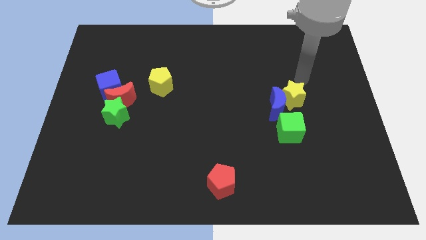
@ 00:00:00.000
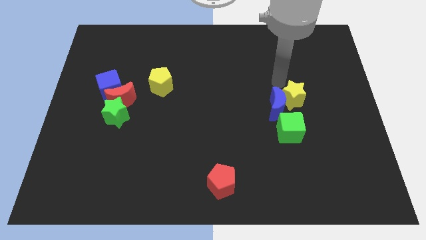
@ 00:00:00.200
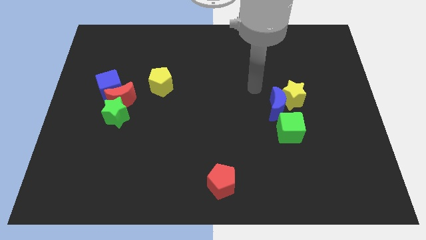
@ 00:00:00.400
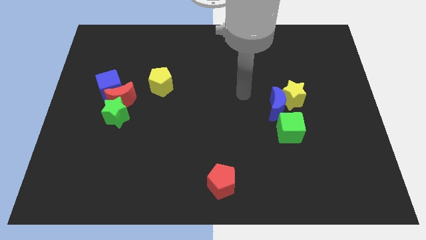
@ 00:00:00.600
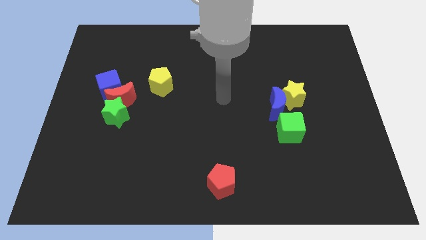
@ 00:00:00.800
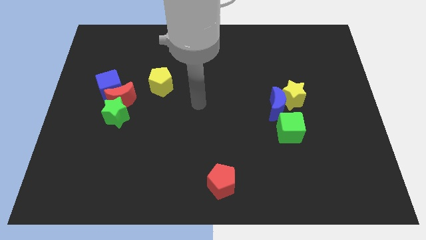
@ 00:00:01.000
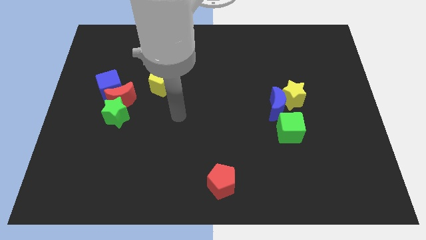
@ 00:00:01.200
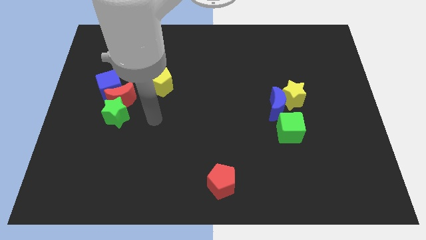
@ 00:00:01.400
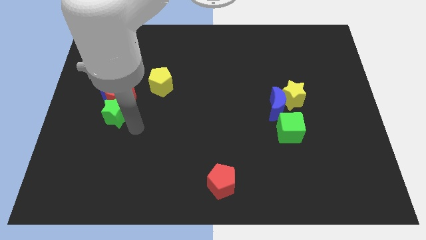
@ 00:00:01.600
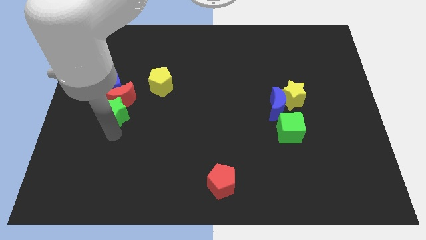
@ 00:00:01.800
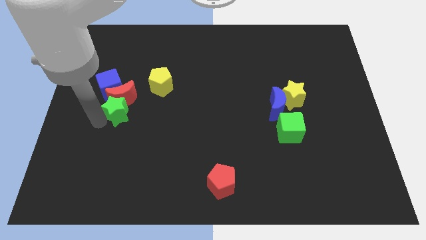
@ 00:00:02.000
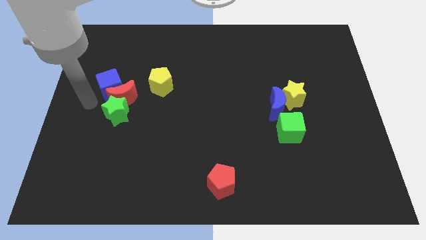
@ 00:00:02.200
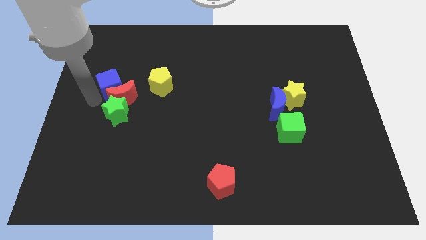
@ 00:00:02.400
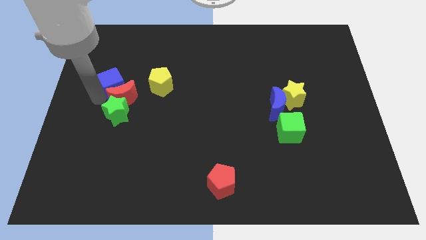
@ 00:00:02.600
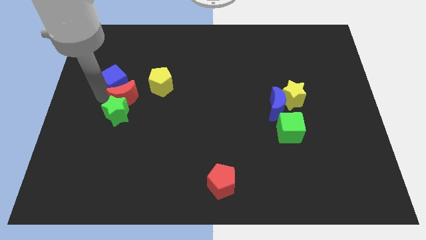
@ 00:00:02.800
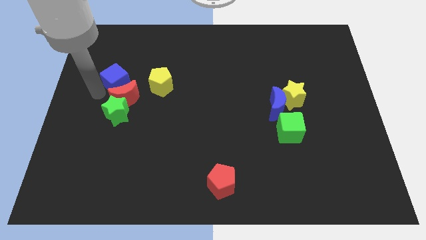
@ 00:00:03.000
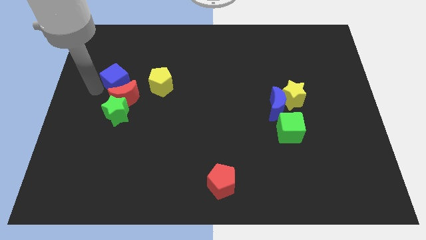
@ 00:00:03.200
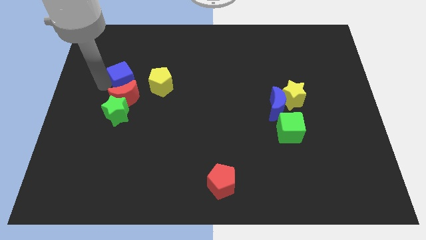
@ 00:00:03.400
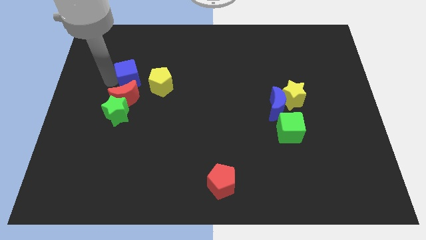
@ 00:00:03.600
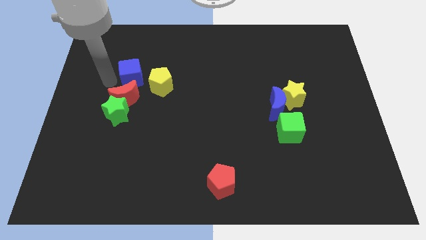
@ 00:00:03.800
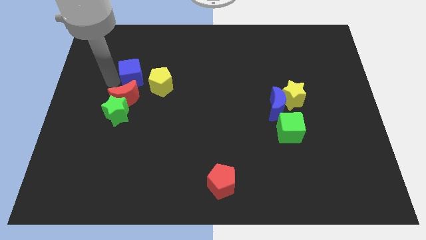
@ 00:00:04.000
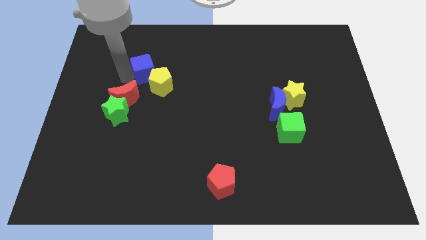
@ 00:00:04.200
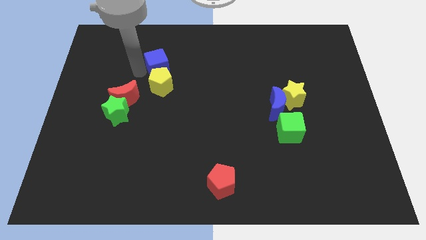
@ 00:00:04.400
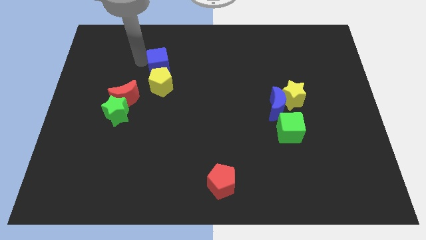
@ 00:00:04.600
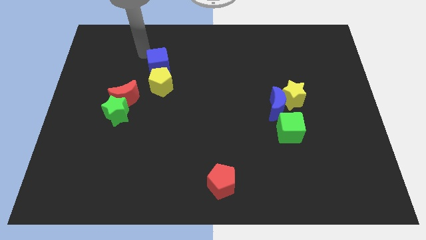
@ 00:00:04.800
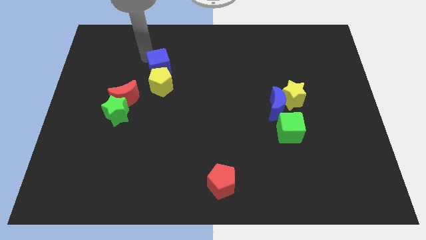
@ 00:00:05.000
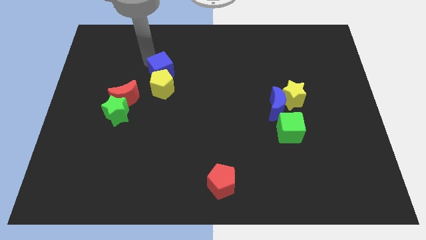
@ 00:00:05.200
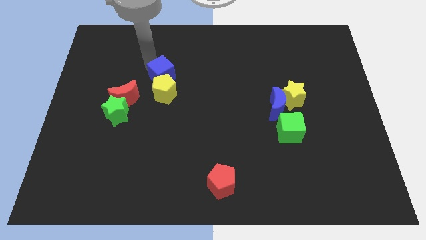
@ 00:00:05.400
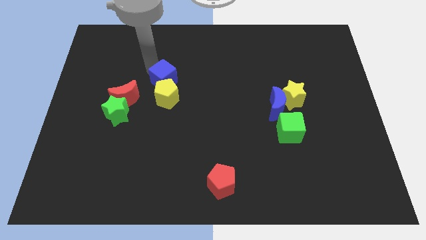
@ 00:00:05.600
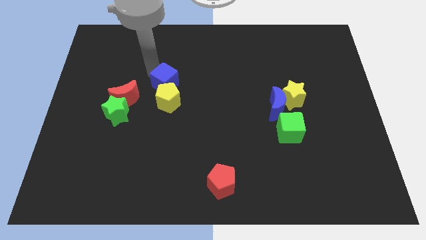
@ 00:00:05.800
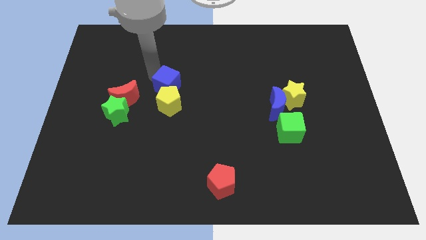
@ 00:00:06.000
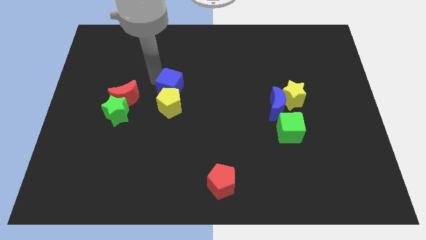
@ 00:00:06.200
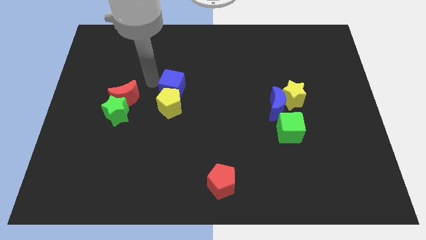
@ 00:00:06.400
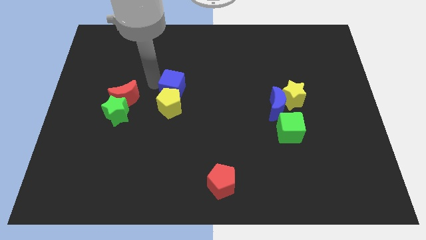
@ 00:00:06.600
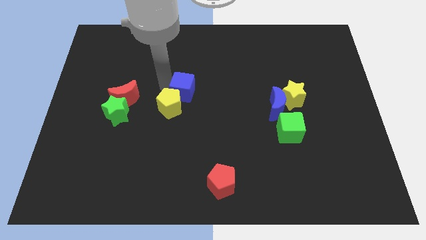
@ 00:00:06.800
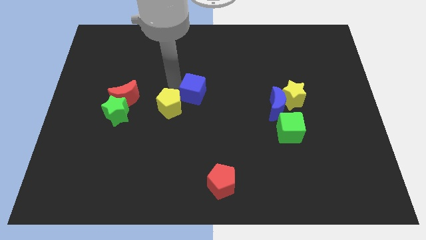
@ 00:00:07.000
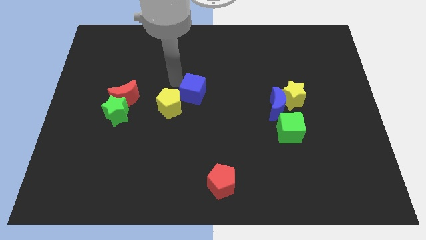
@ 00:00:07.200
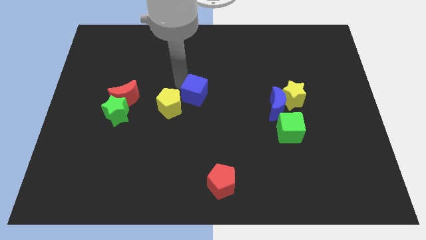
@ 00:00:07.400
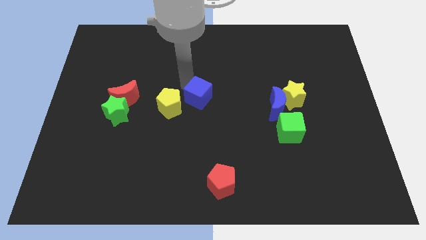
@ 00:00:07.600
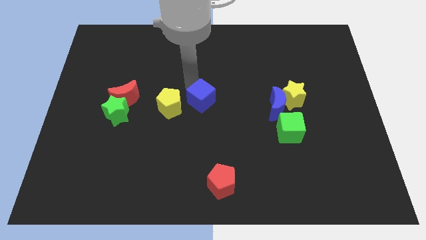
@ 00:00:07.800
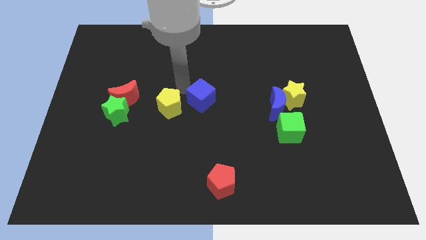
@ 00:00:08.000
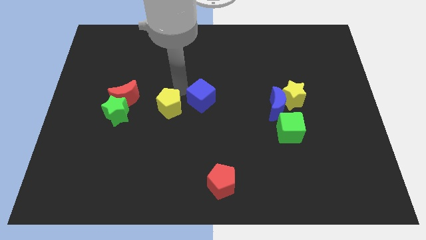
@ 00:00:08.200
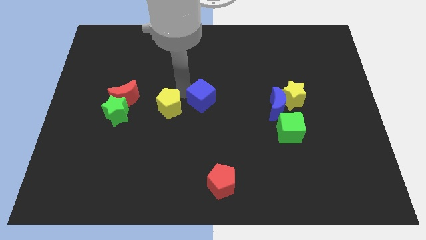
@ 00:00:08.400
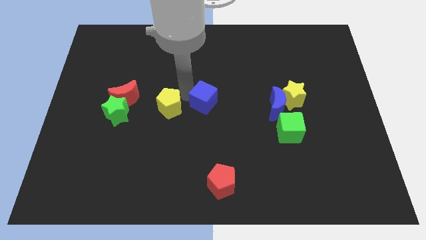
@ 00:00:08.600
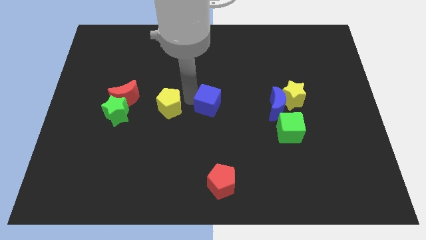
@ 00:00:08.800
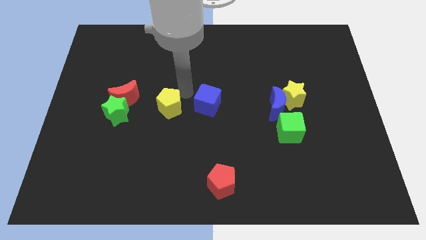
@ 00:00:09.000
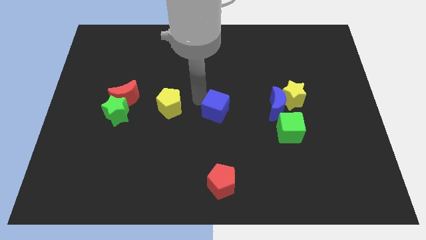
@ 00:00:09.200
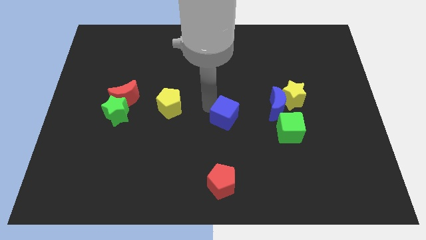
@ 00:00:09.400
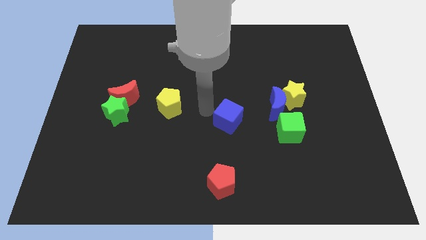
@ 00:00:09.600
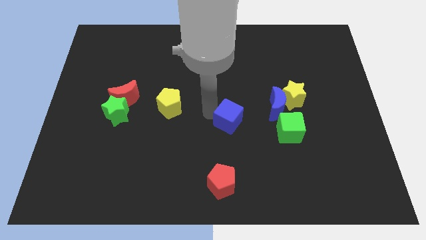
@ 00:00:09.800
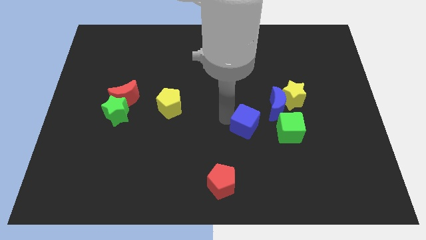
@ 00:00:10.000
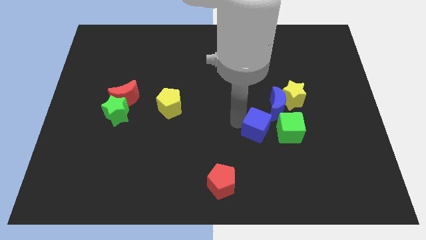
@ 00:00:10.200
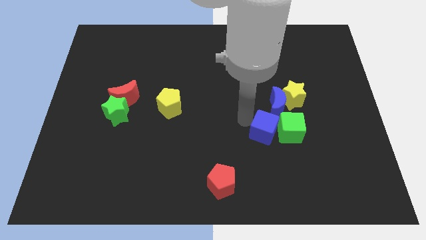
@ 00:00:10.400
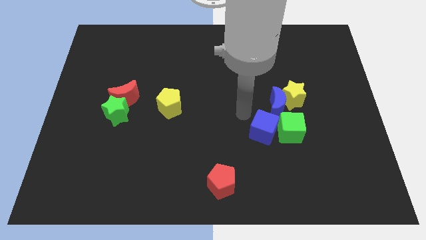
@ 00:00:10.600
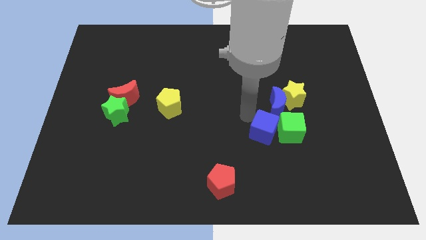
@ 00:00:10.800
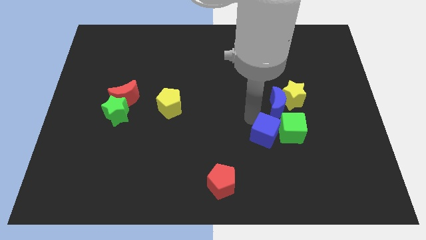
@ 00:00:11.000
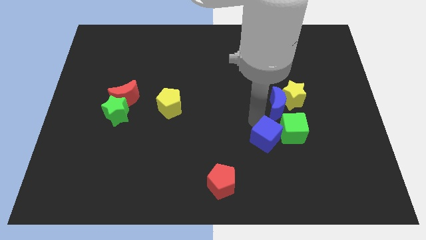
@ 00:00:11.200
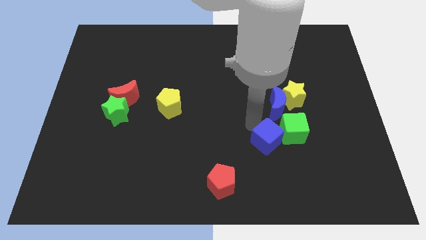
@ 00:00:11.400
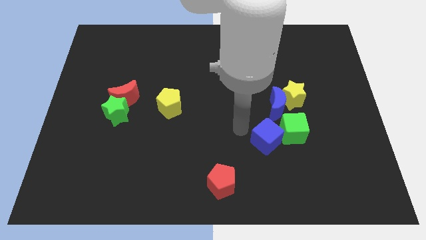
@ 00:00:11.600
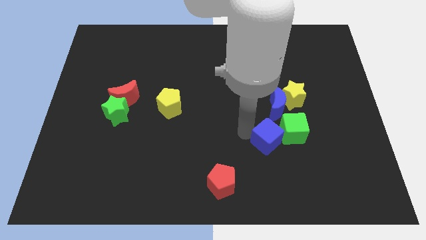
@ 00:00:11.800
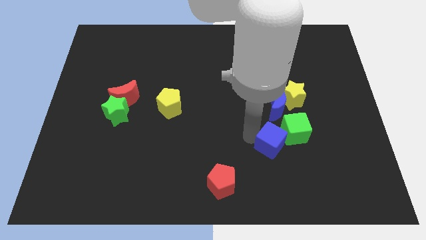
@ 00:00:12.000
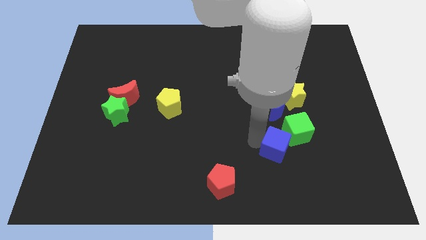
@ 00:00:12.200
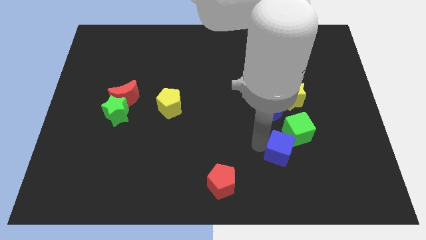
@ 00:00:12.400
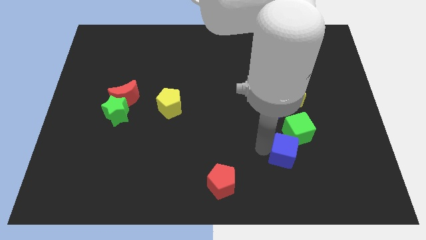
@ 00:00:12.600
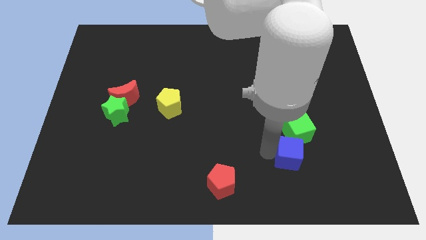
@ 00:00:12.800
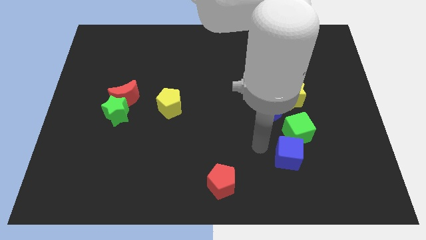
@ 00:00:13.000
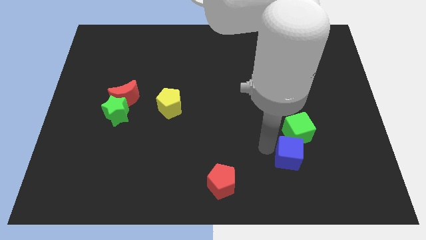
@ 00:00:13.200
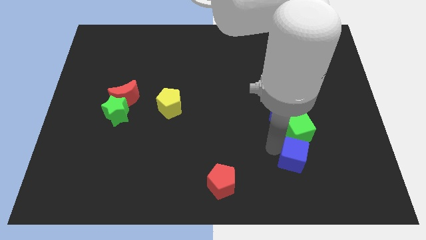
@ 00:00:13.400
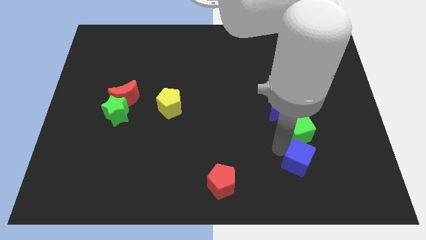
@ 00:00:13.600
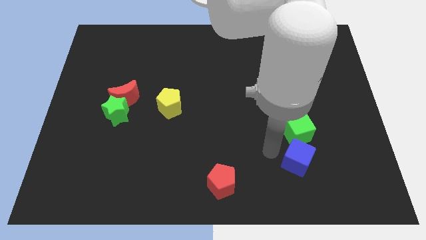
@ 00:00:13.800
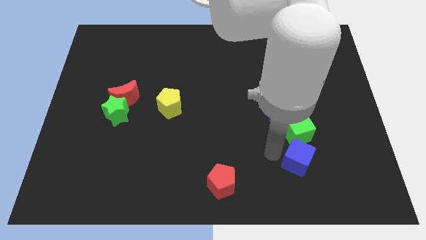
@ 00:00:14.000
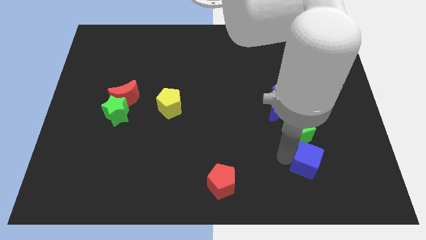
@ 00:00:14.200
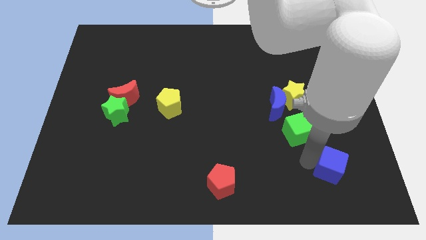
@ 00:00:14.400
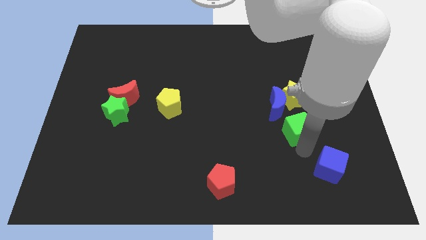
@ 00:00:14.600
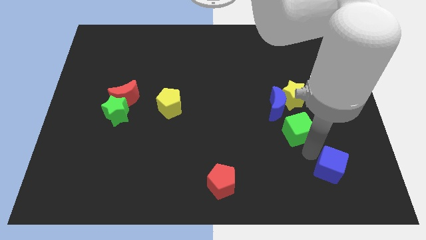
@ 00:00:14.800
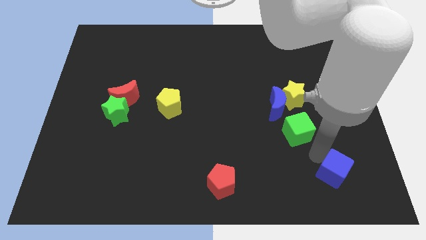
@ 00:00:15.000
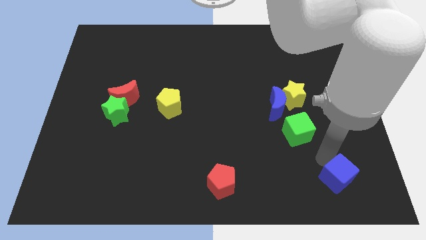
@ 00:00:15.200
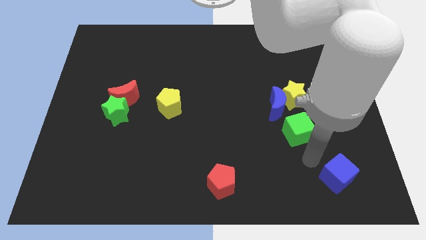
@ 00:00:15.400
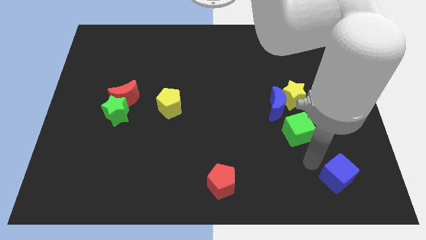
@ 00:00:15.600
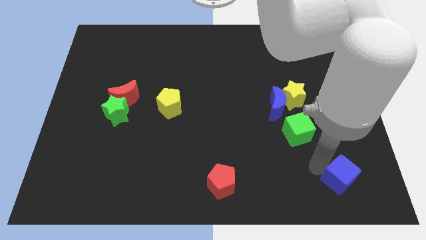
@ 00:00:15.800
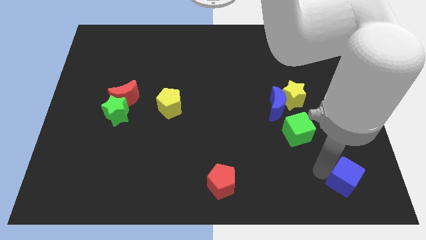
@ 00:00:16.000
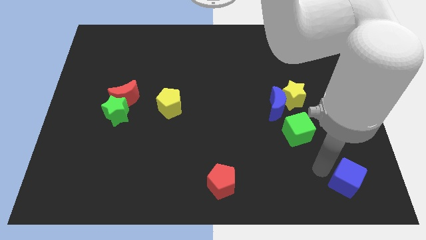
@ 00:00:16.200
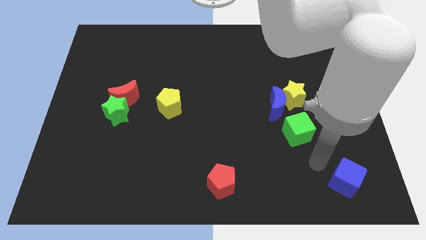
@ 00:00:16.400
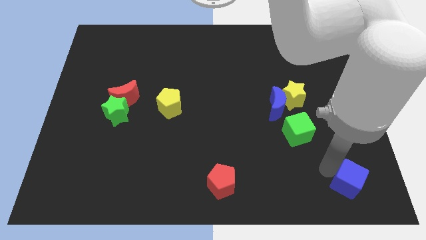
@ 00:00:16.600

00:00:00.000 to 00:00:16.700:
move the blue cube to the lower right corner
